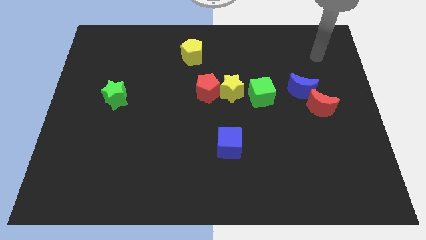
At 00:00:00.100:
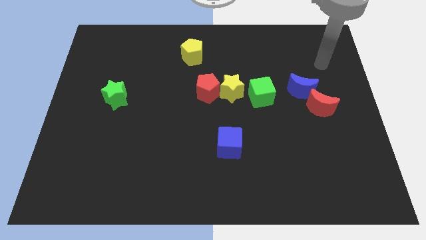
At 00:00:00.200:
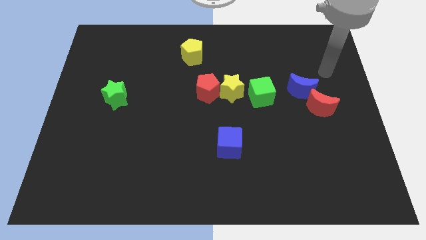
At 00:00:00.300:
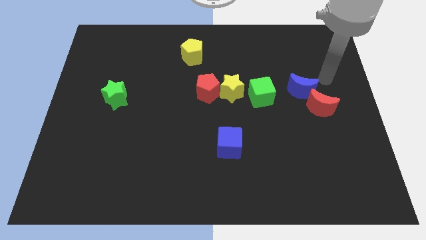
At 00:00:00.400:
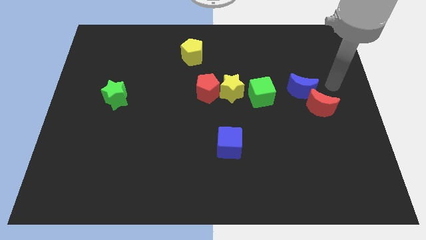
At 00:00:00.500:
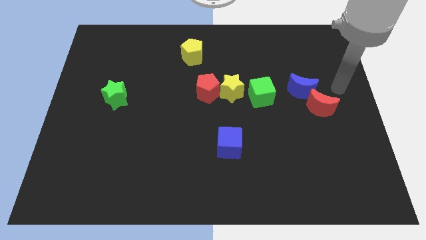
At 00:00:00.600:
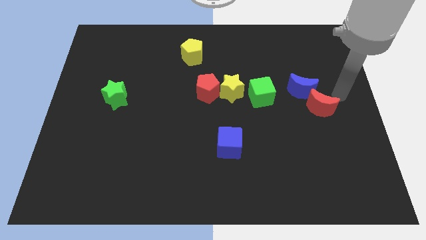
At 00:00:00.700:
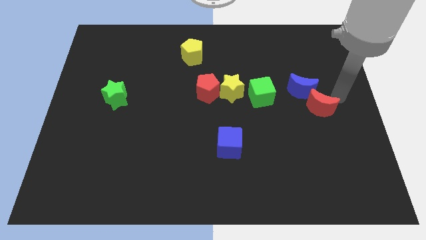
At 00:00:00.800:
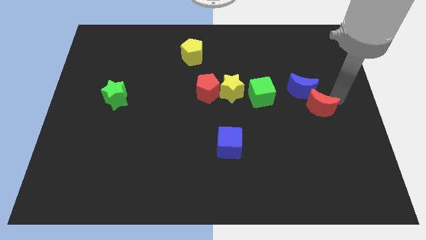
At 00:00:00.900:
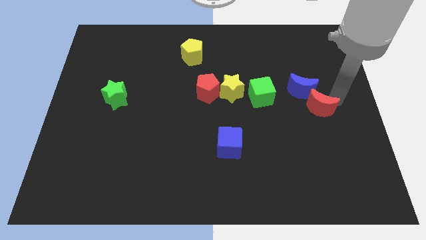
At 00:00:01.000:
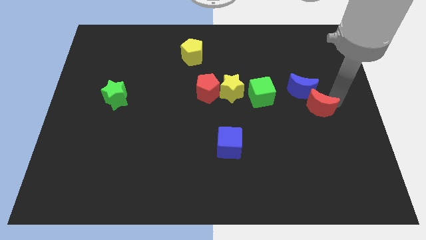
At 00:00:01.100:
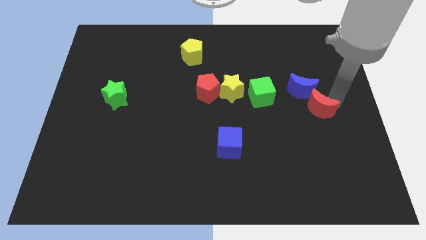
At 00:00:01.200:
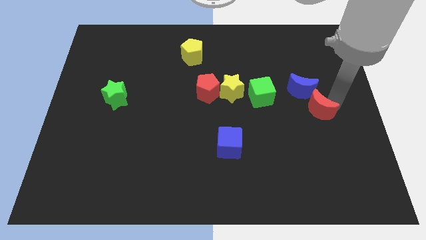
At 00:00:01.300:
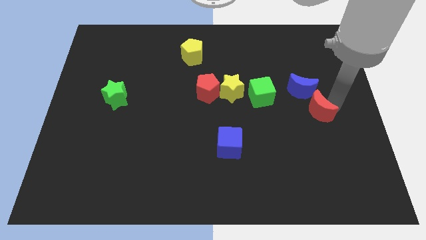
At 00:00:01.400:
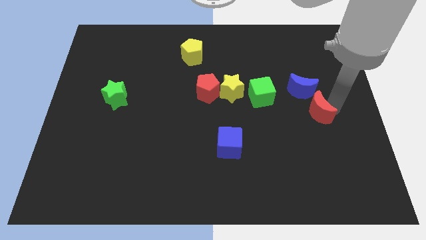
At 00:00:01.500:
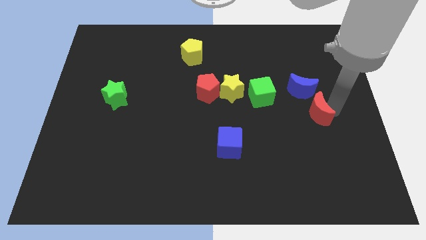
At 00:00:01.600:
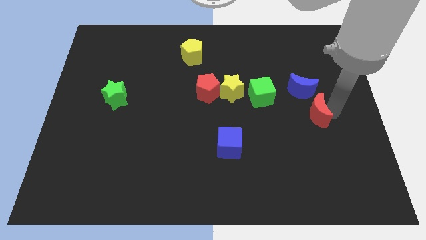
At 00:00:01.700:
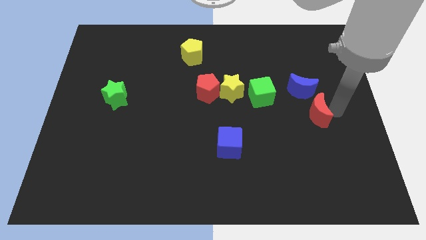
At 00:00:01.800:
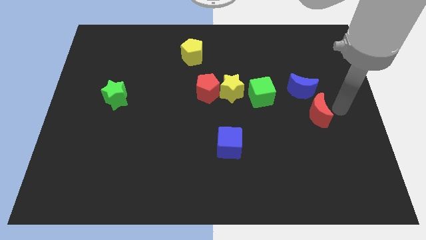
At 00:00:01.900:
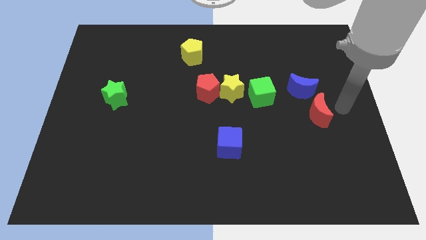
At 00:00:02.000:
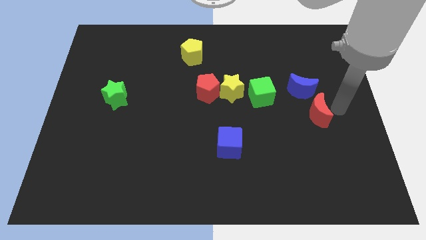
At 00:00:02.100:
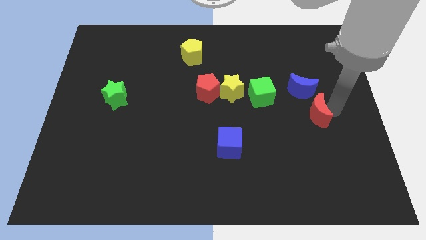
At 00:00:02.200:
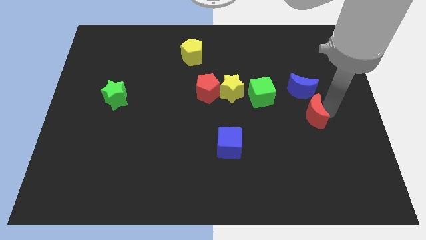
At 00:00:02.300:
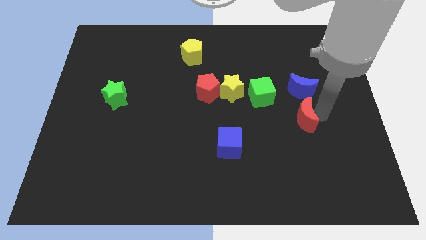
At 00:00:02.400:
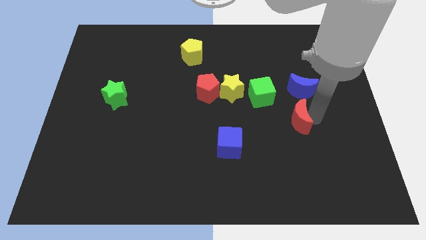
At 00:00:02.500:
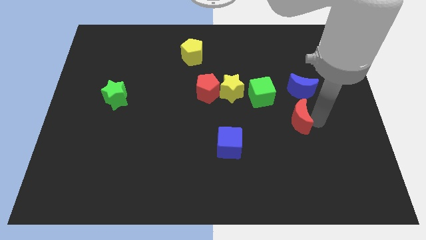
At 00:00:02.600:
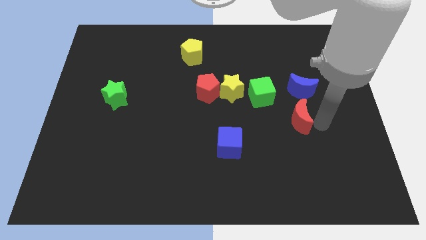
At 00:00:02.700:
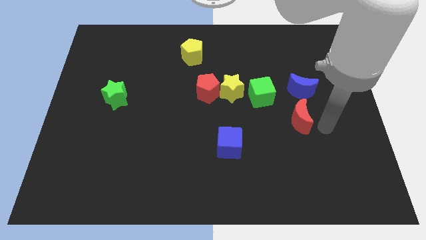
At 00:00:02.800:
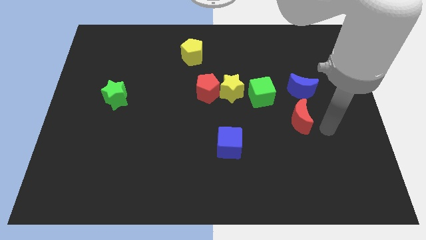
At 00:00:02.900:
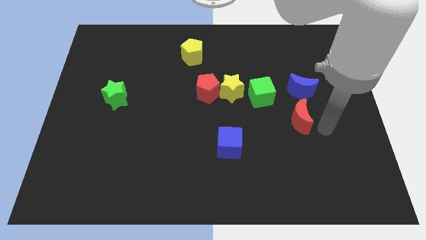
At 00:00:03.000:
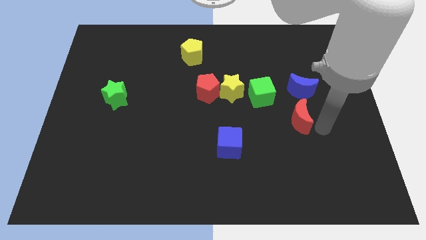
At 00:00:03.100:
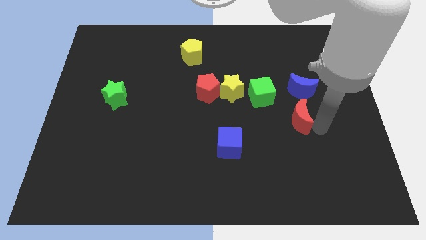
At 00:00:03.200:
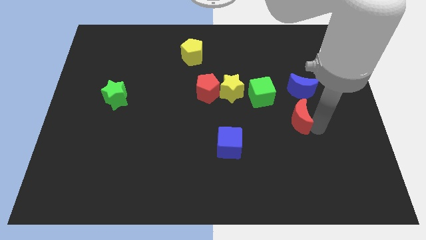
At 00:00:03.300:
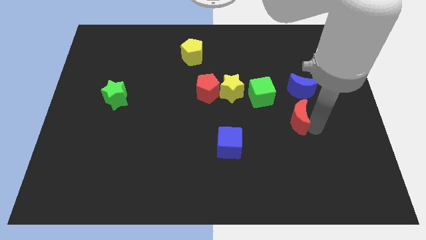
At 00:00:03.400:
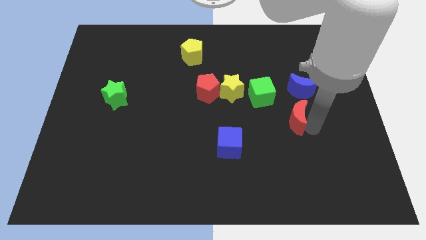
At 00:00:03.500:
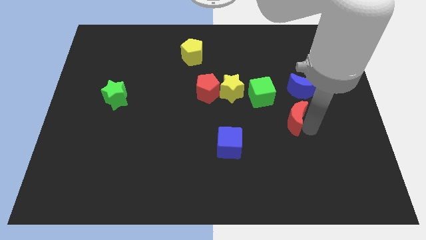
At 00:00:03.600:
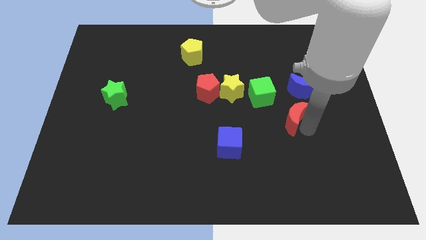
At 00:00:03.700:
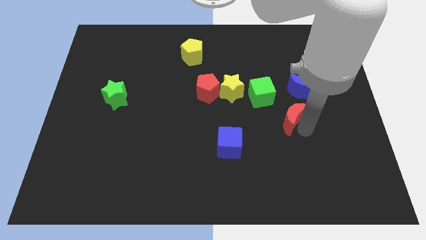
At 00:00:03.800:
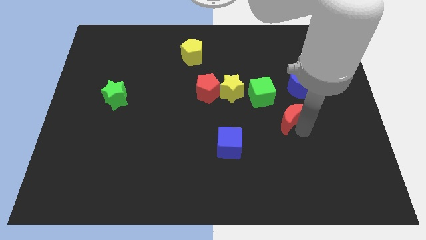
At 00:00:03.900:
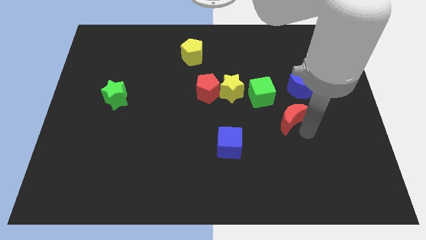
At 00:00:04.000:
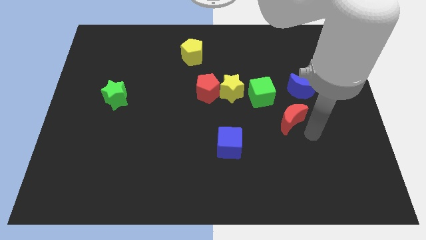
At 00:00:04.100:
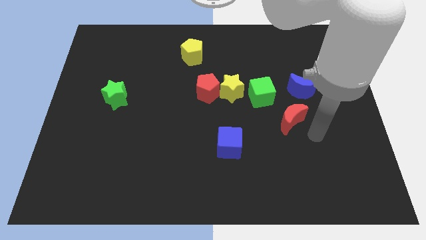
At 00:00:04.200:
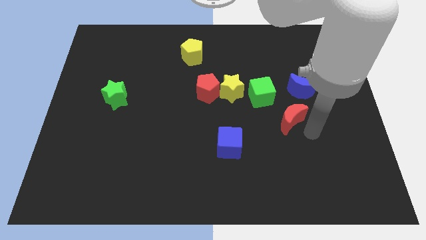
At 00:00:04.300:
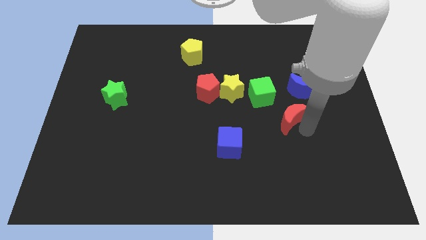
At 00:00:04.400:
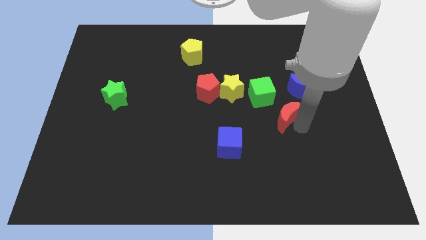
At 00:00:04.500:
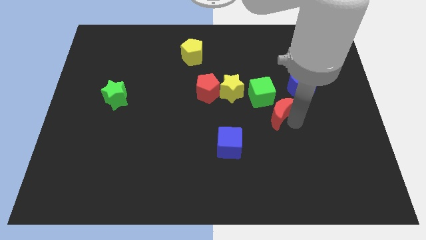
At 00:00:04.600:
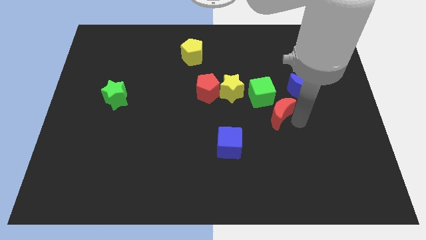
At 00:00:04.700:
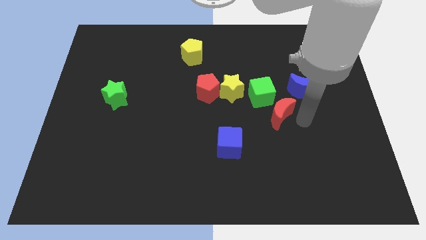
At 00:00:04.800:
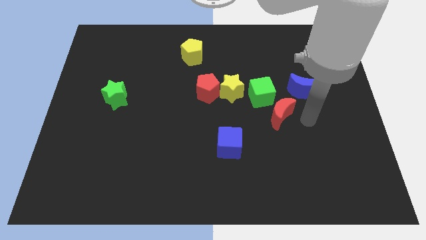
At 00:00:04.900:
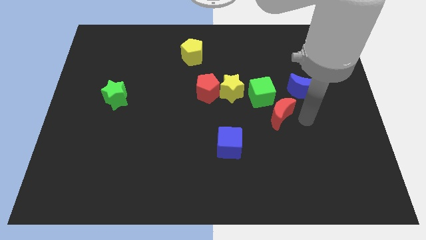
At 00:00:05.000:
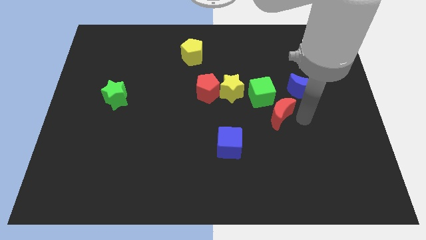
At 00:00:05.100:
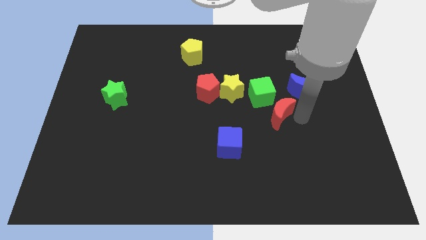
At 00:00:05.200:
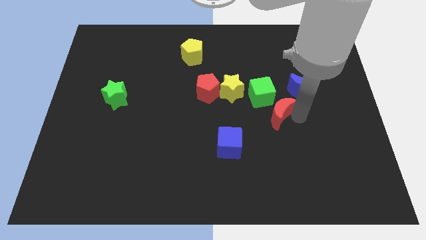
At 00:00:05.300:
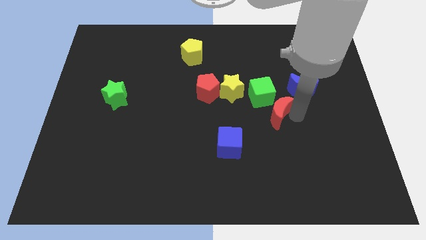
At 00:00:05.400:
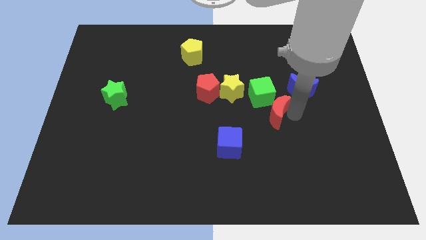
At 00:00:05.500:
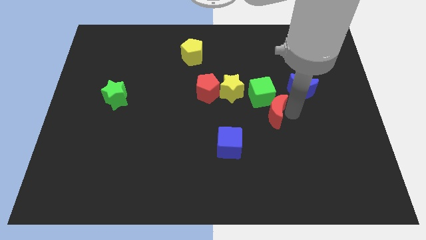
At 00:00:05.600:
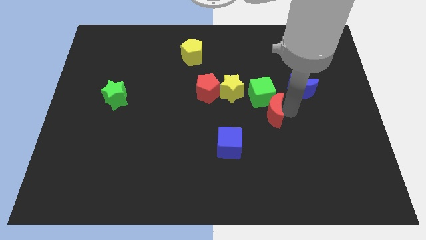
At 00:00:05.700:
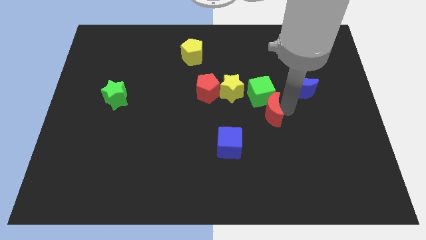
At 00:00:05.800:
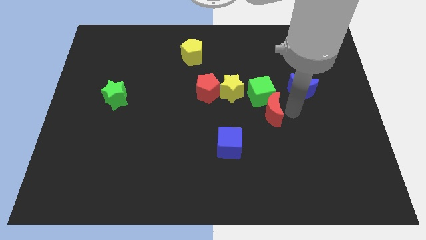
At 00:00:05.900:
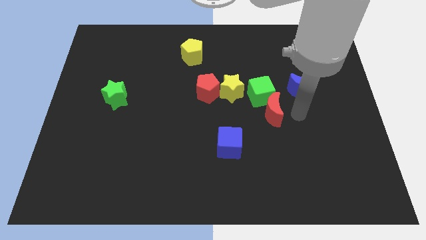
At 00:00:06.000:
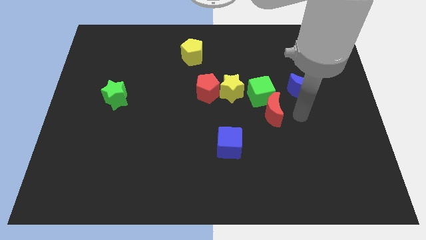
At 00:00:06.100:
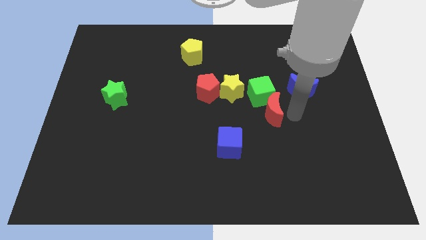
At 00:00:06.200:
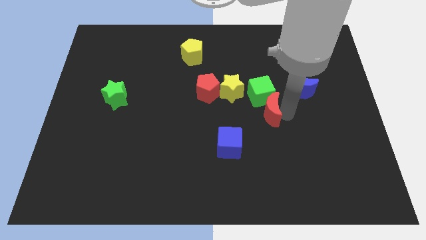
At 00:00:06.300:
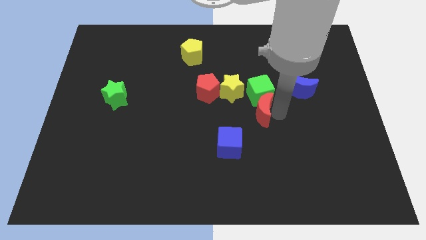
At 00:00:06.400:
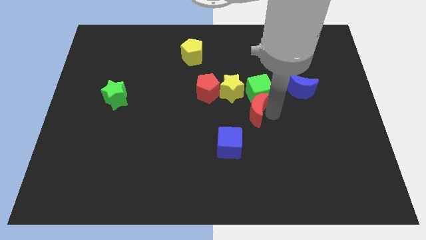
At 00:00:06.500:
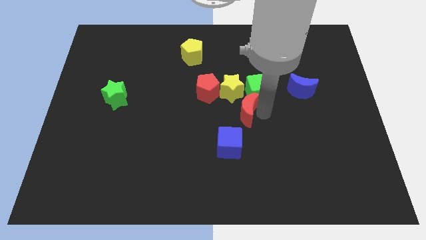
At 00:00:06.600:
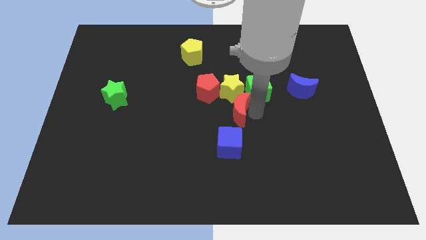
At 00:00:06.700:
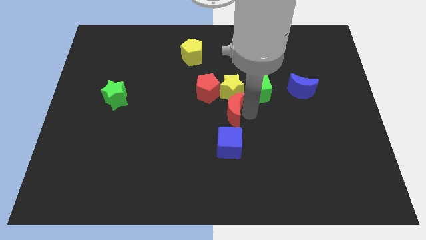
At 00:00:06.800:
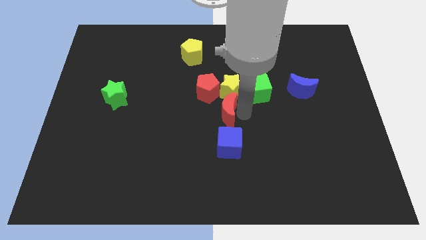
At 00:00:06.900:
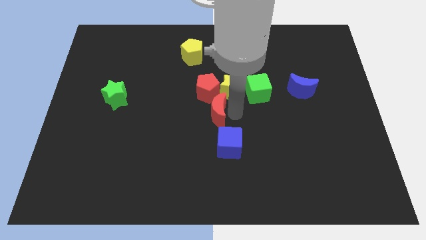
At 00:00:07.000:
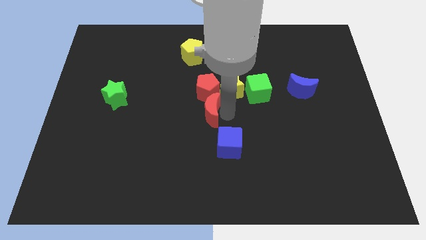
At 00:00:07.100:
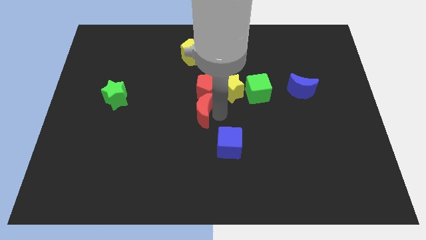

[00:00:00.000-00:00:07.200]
put the red moon to the bottom left side of the red pentagon
